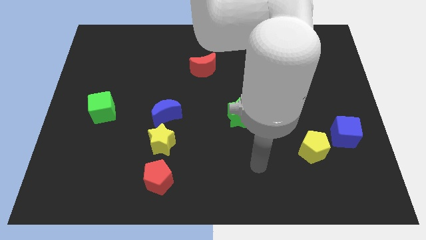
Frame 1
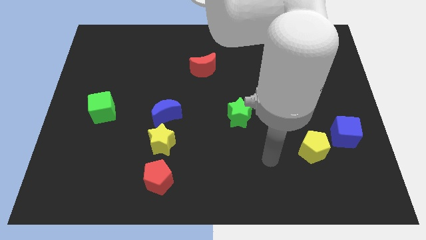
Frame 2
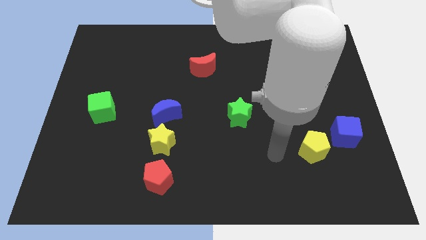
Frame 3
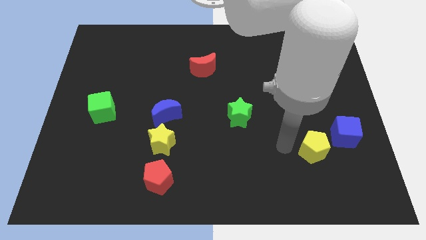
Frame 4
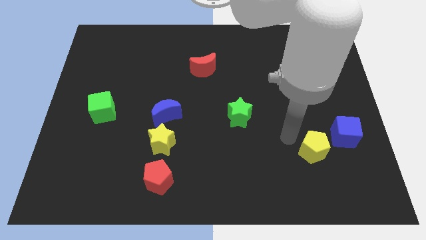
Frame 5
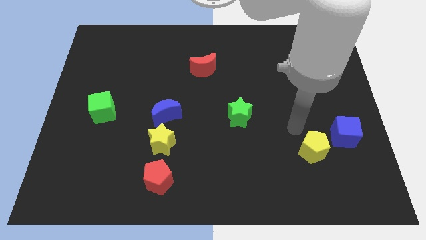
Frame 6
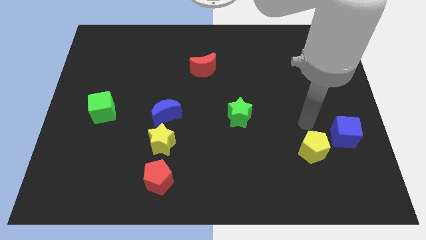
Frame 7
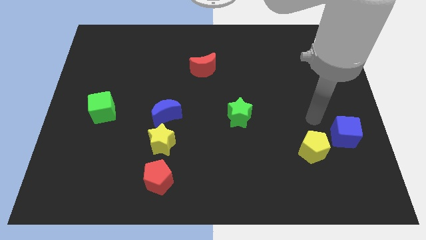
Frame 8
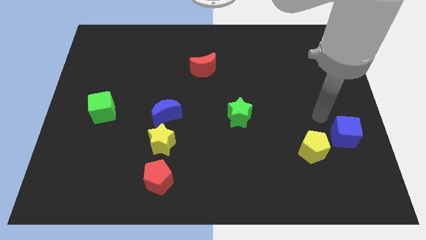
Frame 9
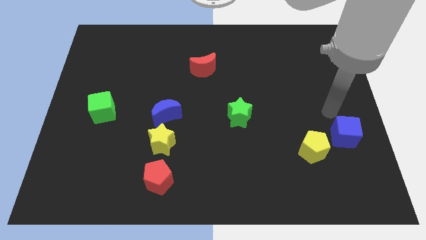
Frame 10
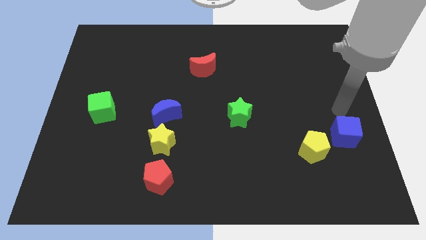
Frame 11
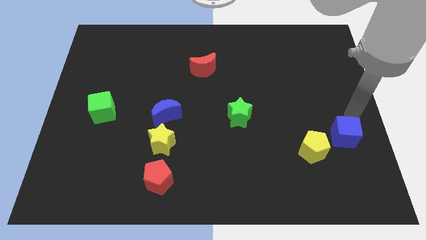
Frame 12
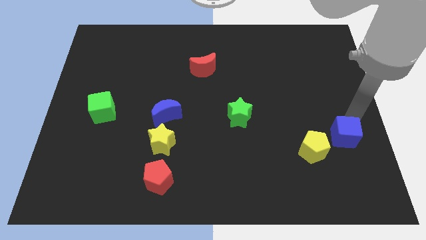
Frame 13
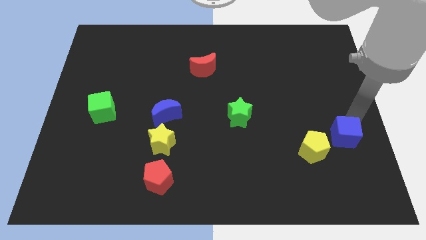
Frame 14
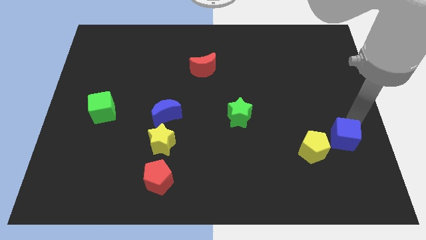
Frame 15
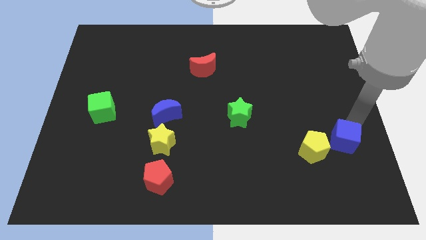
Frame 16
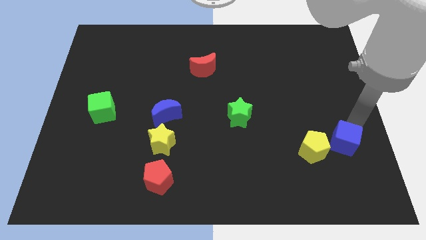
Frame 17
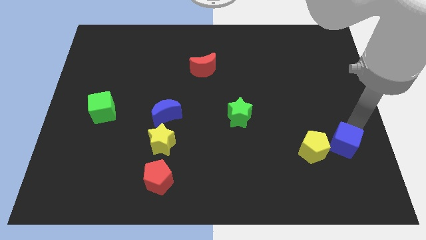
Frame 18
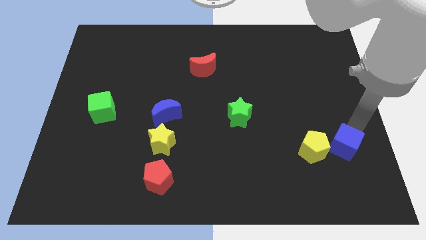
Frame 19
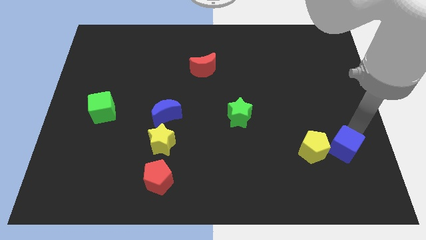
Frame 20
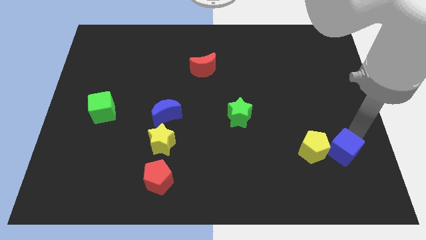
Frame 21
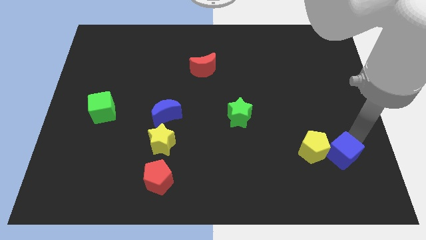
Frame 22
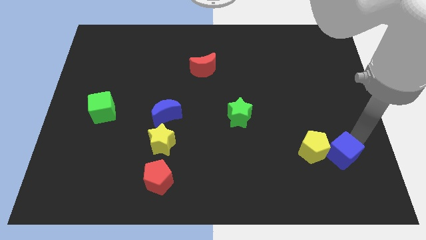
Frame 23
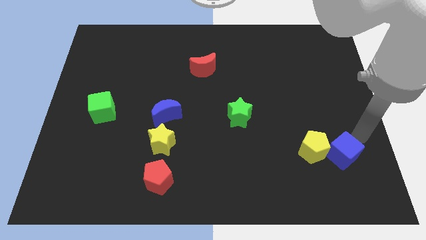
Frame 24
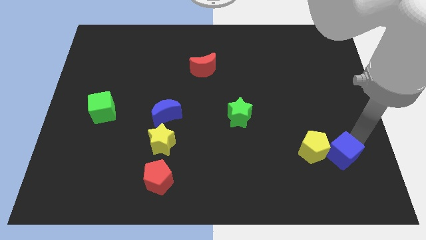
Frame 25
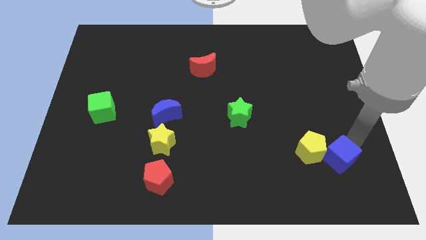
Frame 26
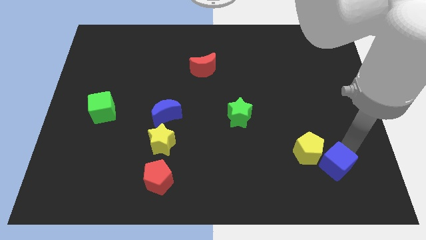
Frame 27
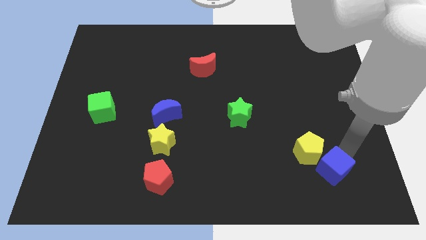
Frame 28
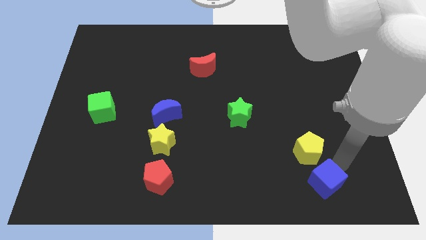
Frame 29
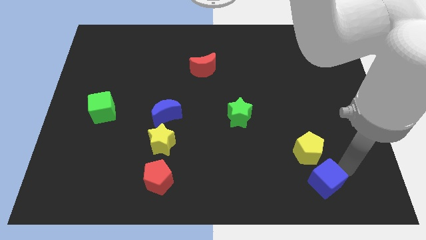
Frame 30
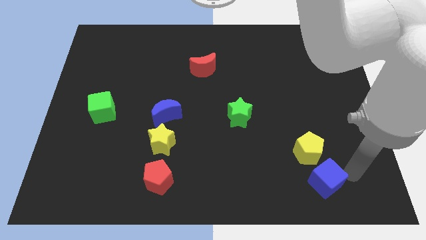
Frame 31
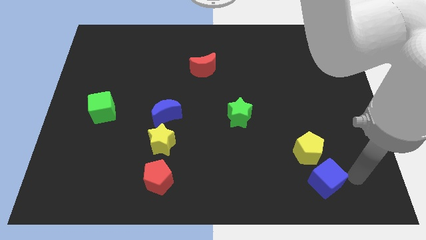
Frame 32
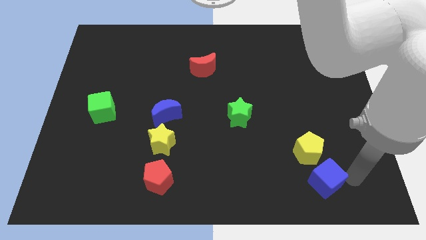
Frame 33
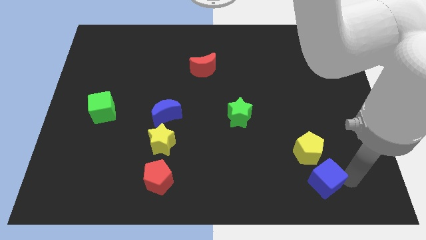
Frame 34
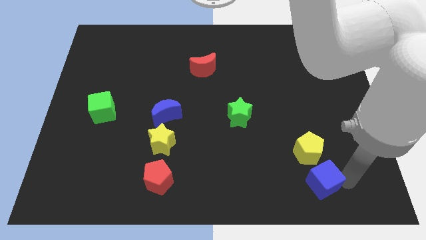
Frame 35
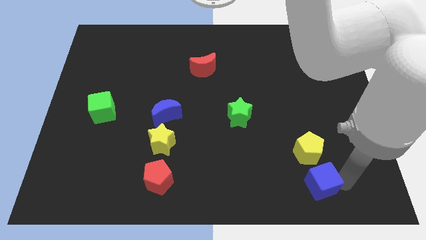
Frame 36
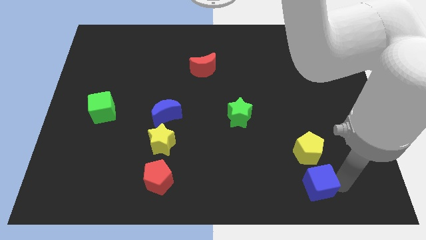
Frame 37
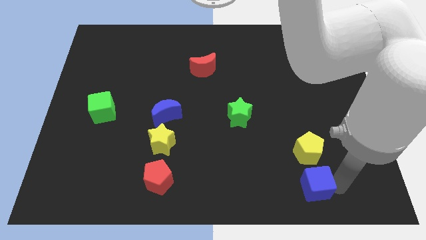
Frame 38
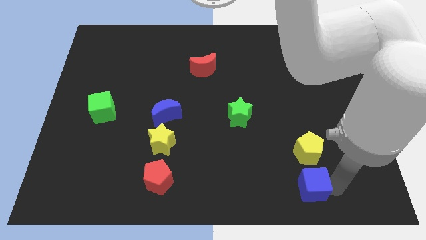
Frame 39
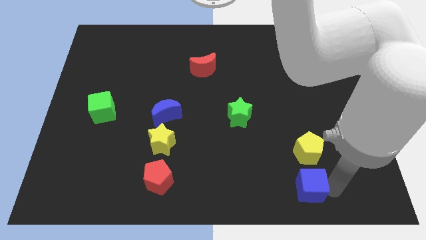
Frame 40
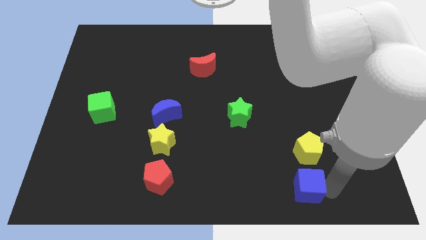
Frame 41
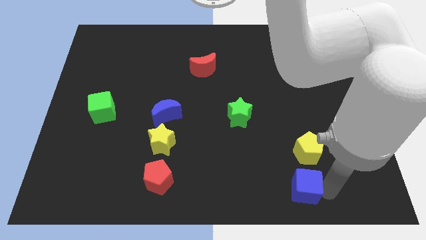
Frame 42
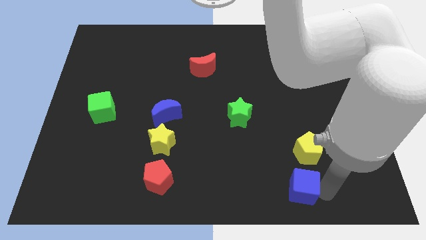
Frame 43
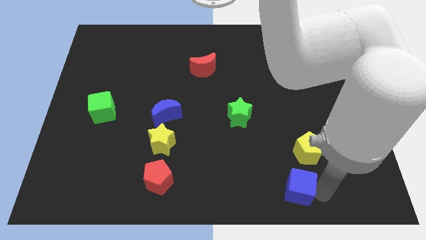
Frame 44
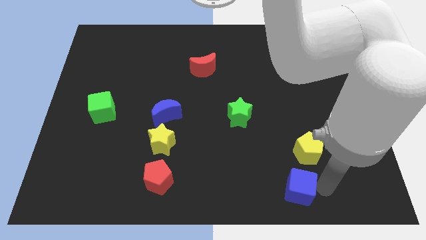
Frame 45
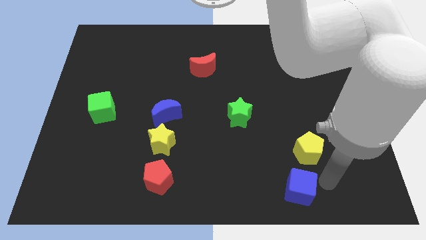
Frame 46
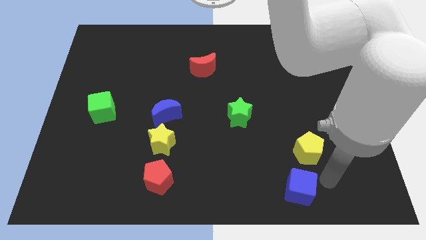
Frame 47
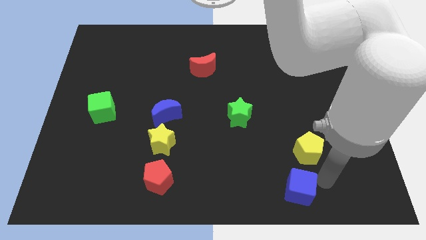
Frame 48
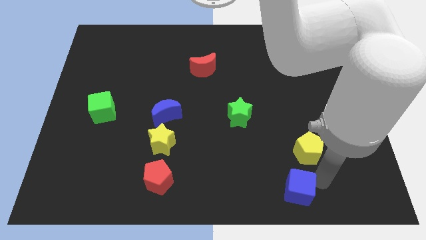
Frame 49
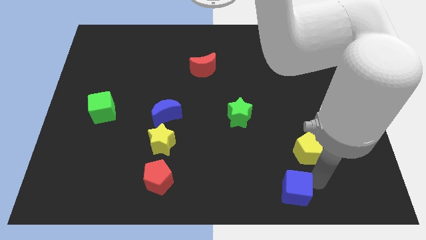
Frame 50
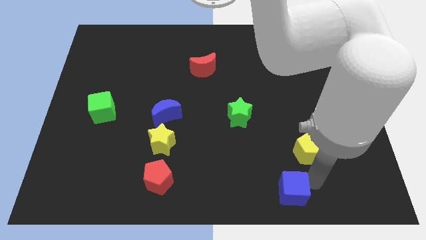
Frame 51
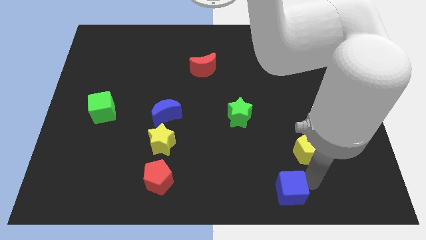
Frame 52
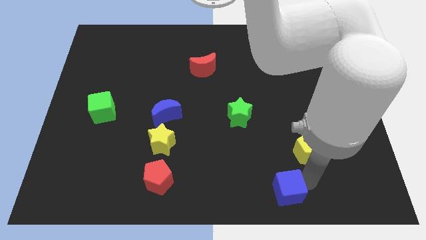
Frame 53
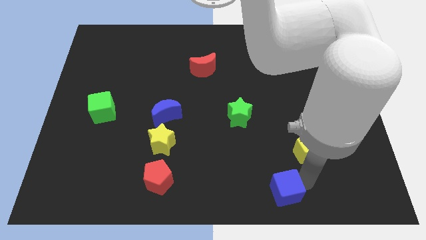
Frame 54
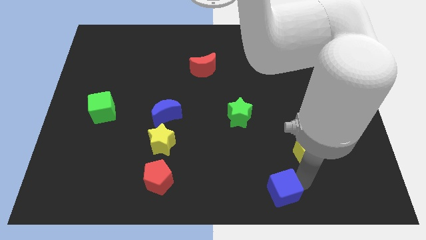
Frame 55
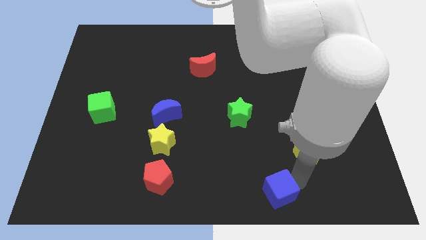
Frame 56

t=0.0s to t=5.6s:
push the blue cube to the bottom

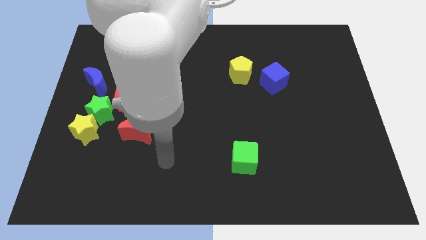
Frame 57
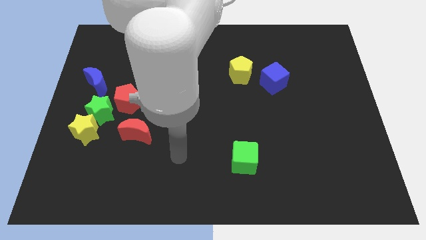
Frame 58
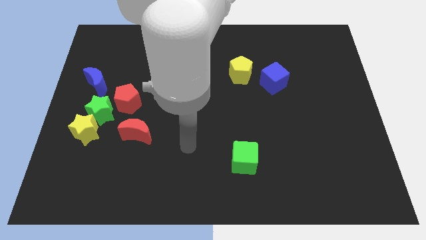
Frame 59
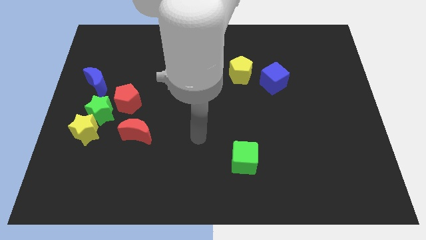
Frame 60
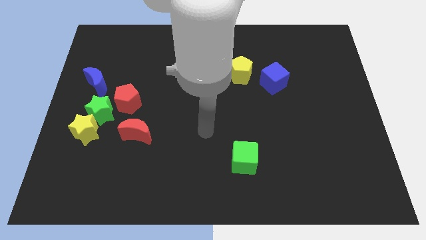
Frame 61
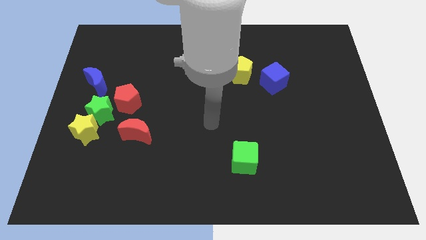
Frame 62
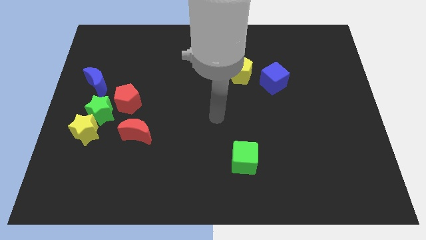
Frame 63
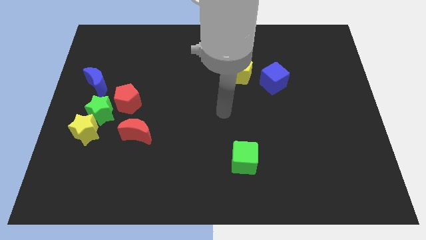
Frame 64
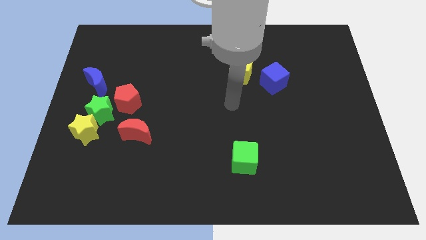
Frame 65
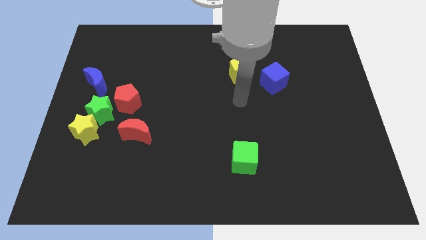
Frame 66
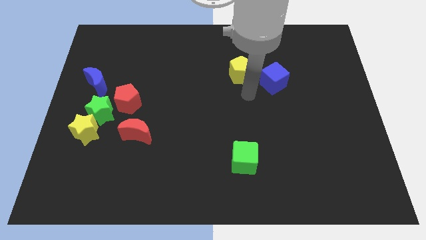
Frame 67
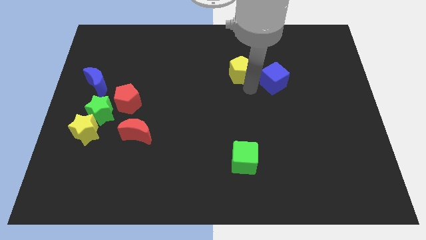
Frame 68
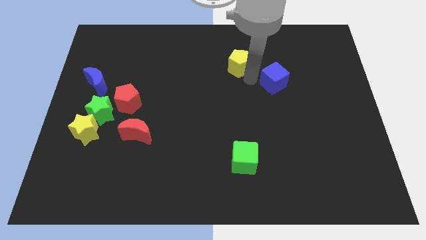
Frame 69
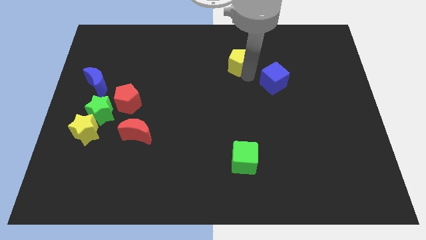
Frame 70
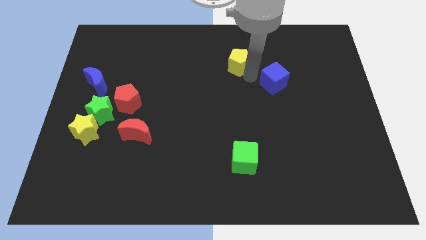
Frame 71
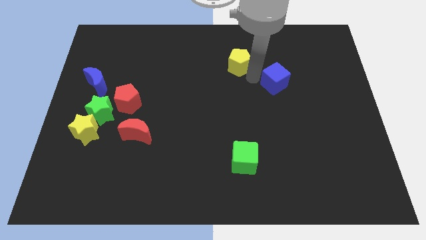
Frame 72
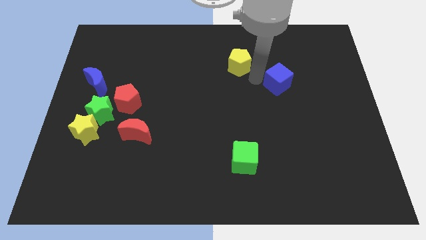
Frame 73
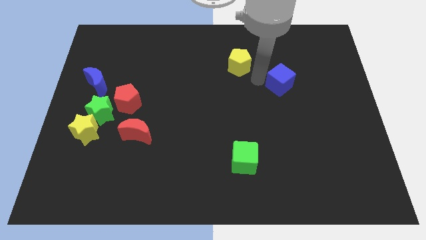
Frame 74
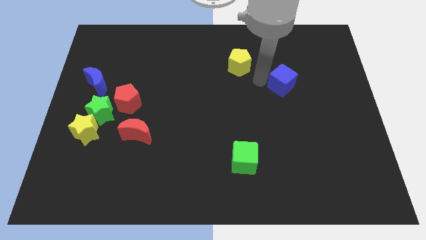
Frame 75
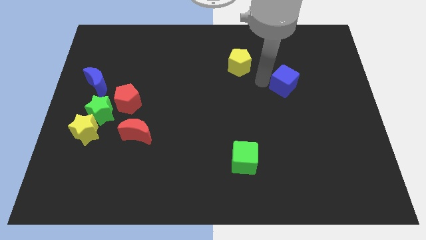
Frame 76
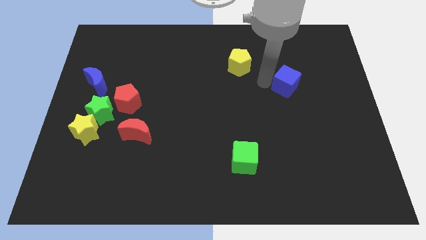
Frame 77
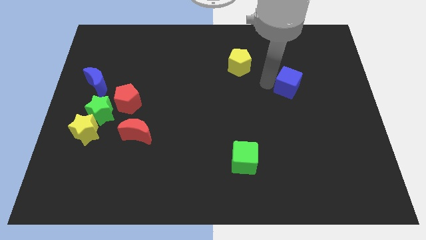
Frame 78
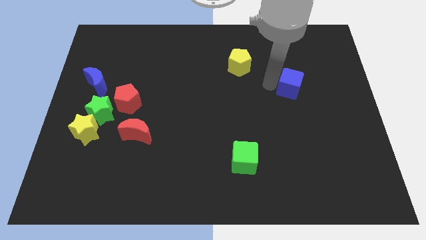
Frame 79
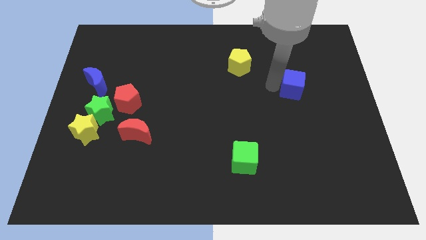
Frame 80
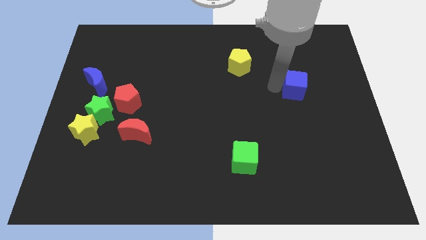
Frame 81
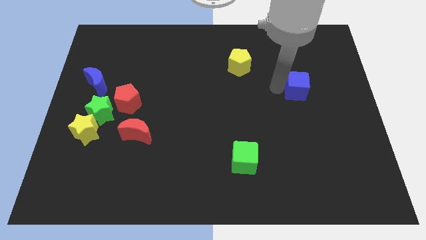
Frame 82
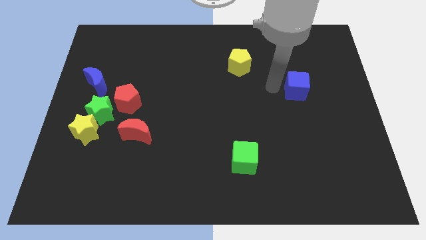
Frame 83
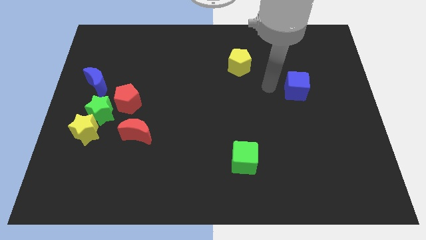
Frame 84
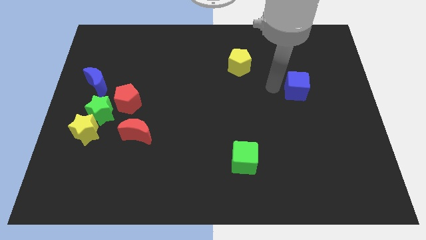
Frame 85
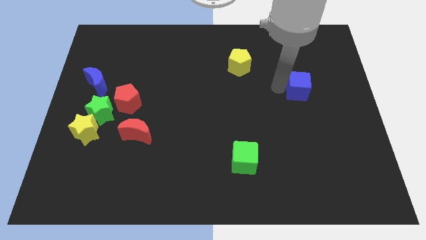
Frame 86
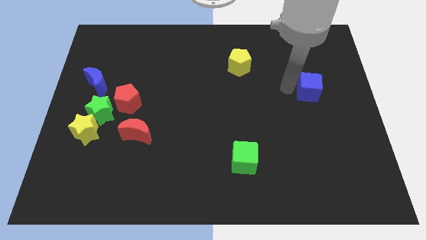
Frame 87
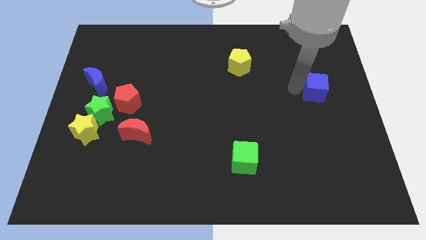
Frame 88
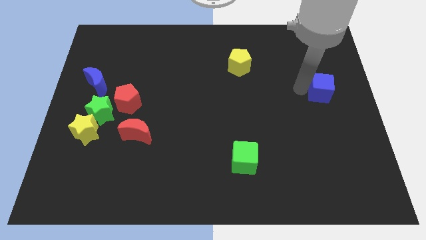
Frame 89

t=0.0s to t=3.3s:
slide the blue cube to the right side of the board
